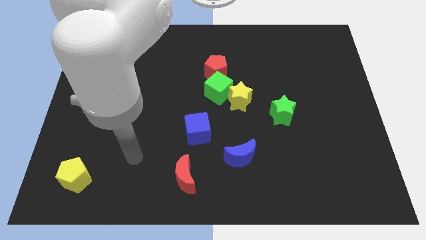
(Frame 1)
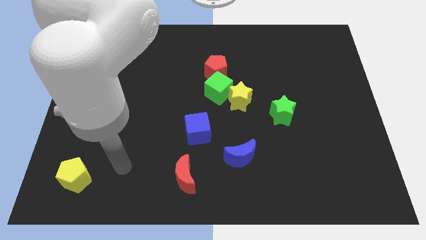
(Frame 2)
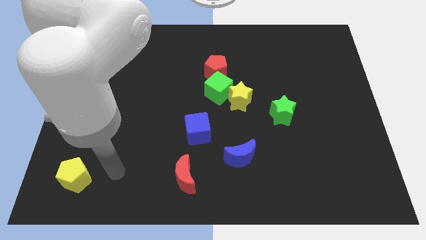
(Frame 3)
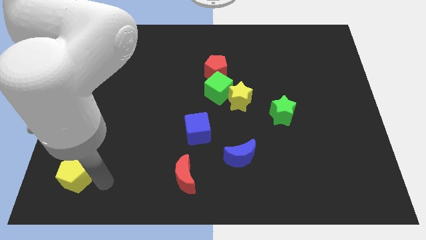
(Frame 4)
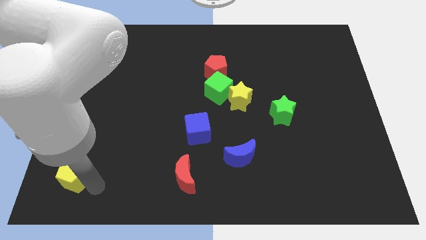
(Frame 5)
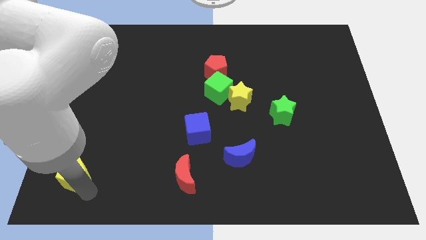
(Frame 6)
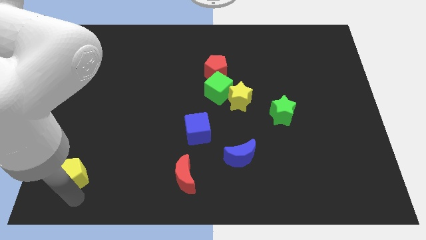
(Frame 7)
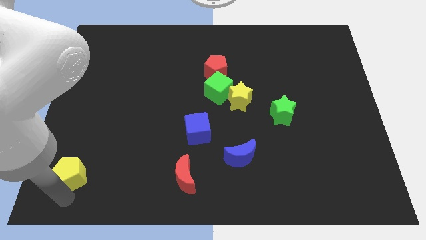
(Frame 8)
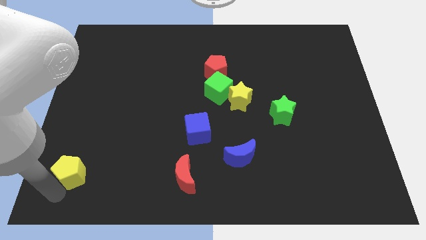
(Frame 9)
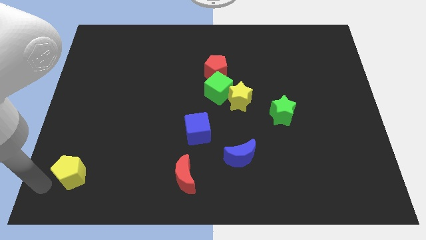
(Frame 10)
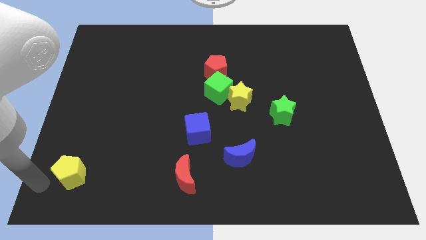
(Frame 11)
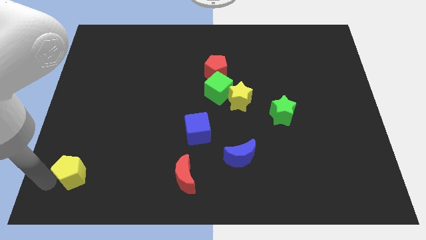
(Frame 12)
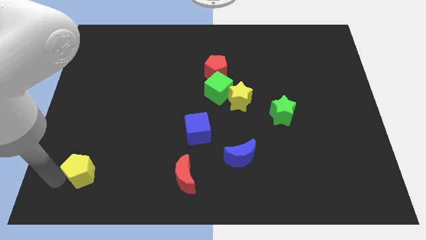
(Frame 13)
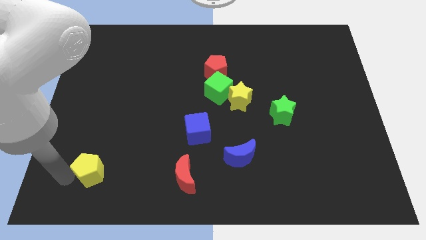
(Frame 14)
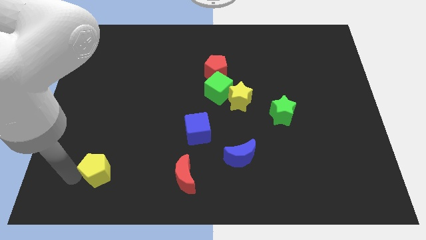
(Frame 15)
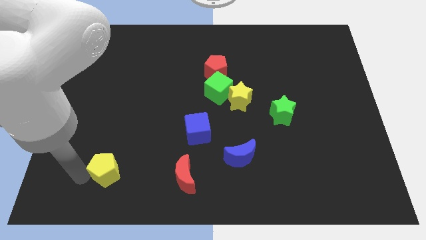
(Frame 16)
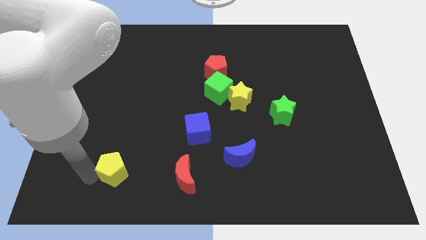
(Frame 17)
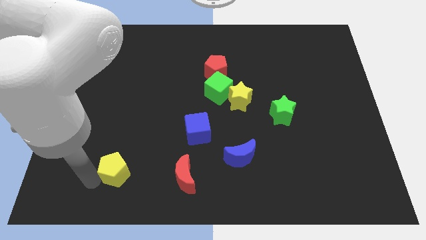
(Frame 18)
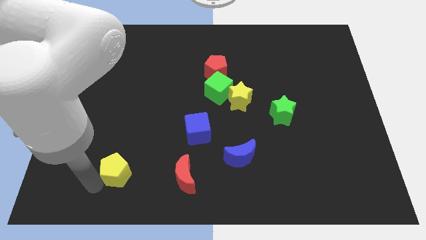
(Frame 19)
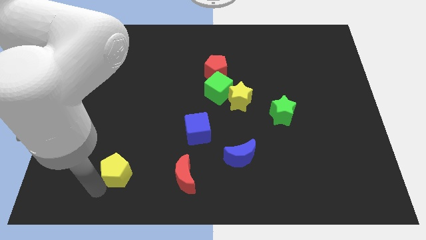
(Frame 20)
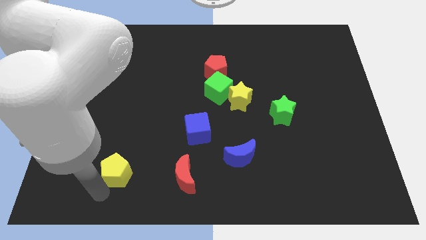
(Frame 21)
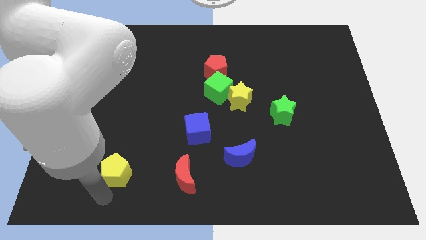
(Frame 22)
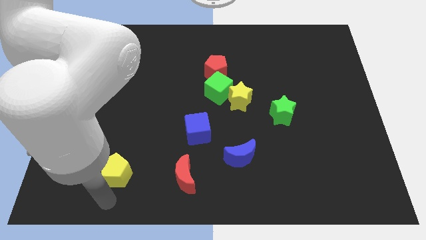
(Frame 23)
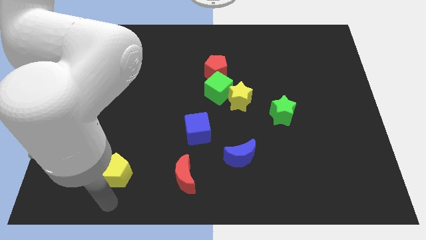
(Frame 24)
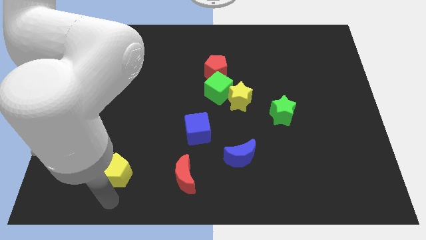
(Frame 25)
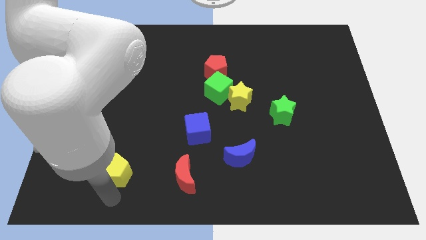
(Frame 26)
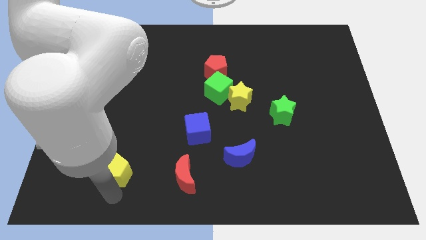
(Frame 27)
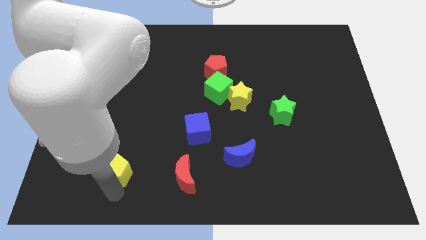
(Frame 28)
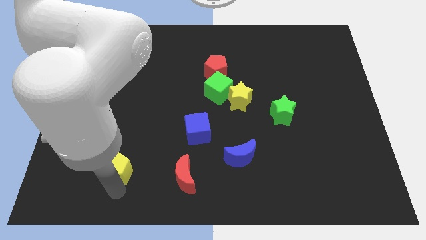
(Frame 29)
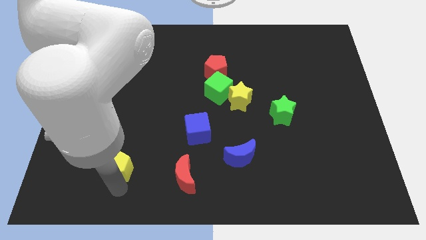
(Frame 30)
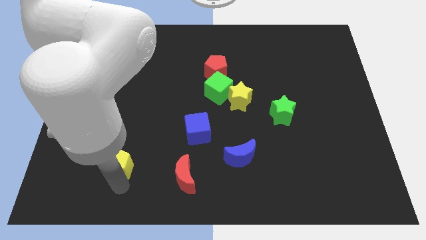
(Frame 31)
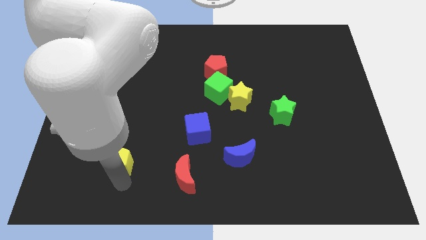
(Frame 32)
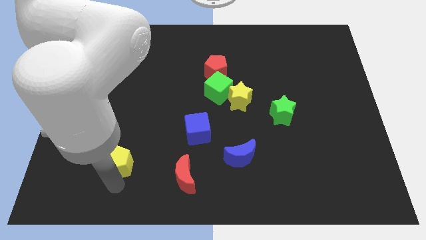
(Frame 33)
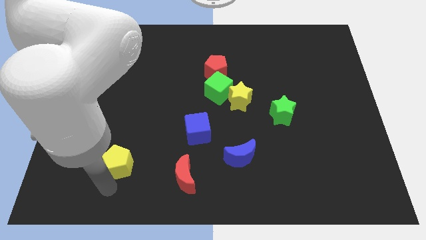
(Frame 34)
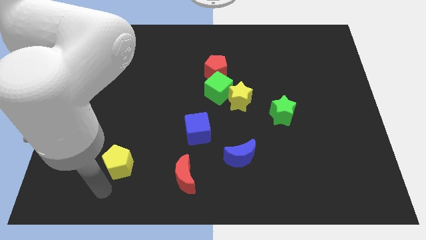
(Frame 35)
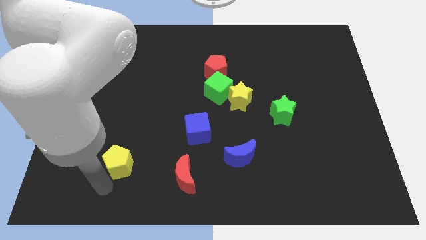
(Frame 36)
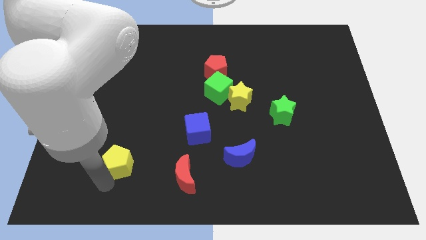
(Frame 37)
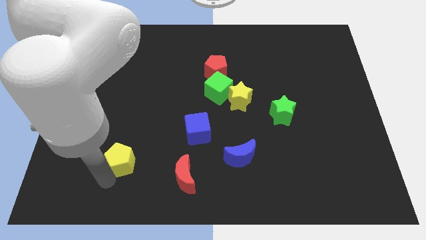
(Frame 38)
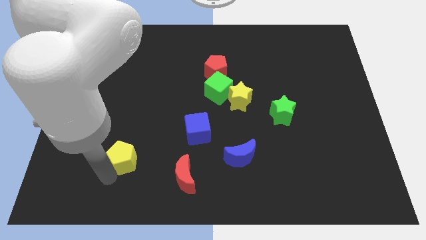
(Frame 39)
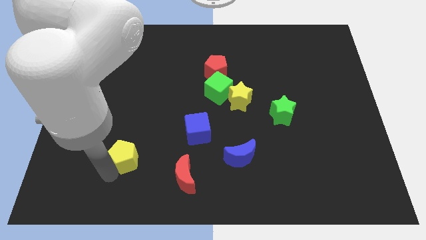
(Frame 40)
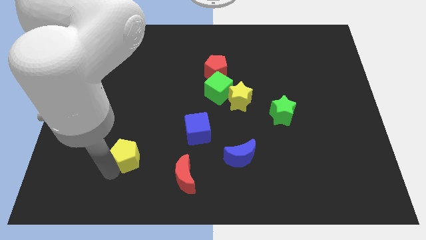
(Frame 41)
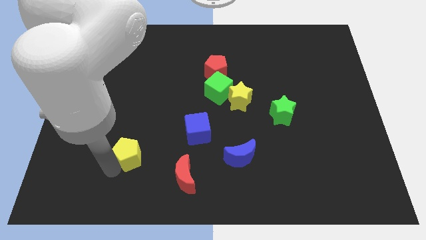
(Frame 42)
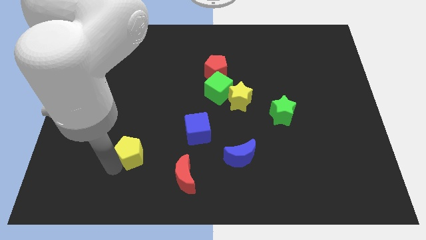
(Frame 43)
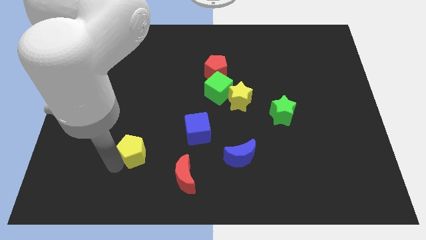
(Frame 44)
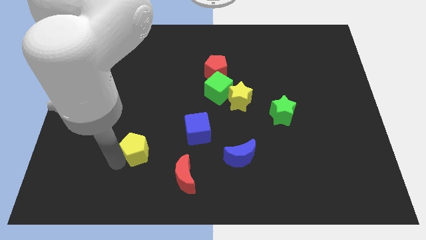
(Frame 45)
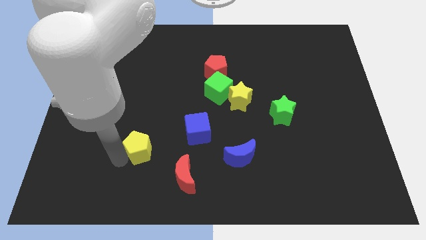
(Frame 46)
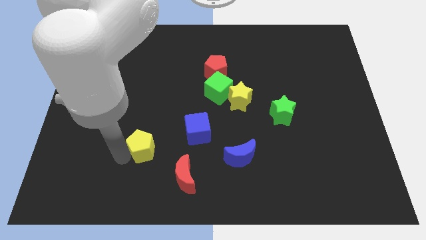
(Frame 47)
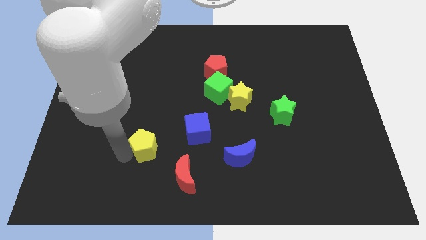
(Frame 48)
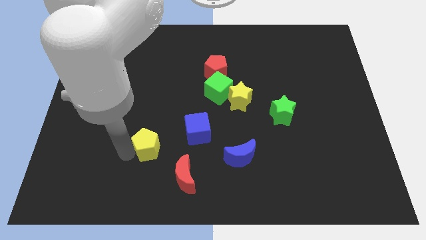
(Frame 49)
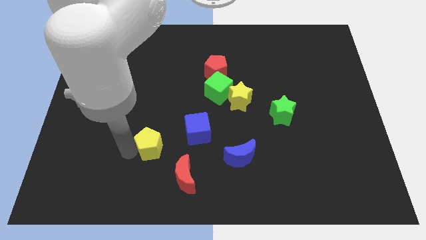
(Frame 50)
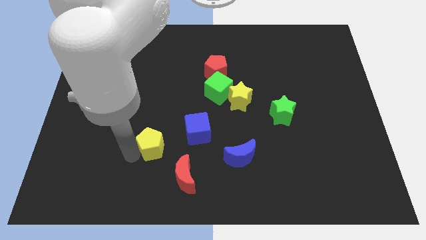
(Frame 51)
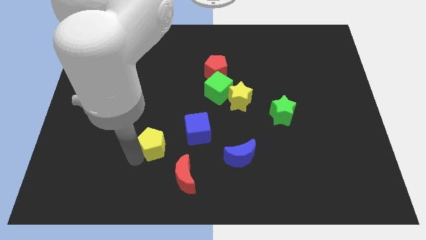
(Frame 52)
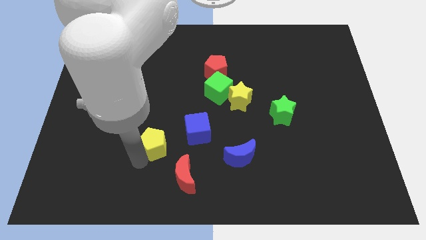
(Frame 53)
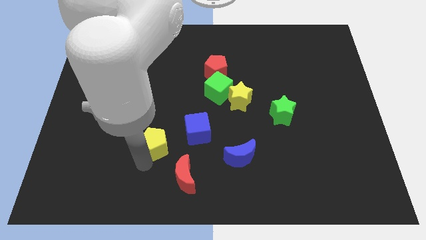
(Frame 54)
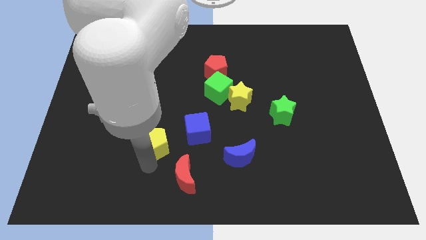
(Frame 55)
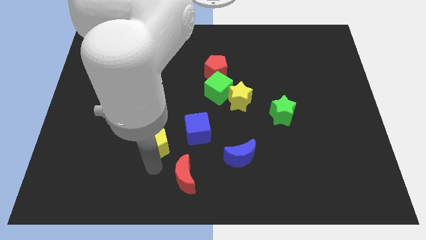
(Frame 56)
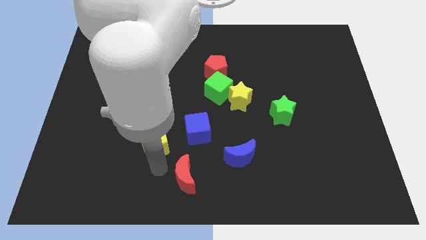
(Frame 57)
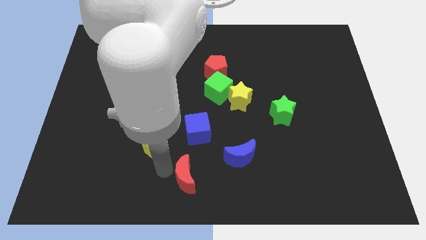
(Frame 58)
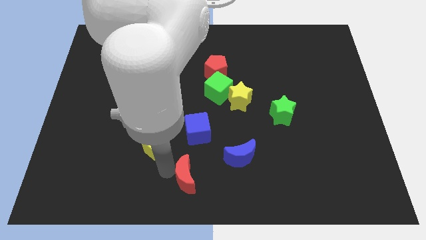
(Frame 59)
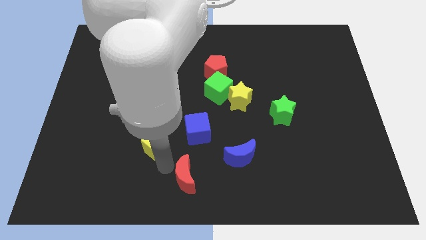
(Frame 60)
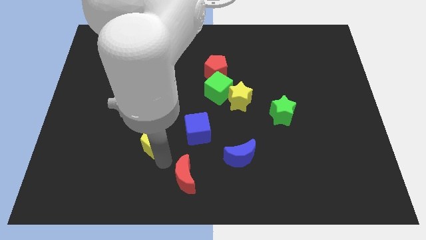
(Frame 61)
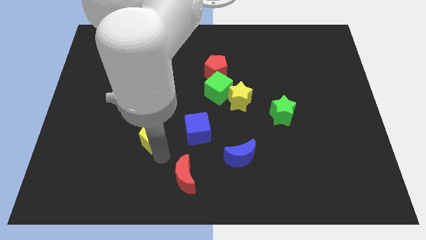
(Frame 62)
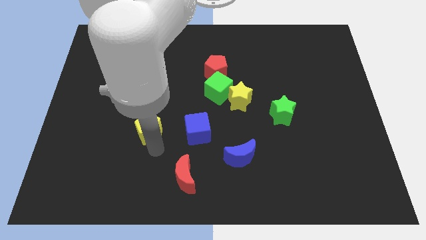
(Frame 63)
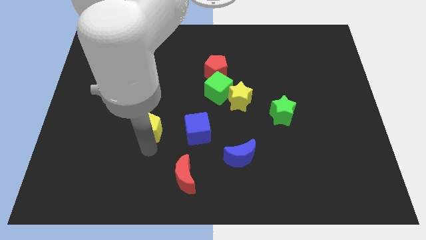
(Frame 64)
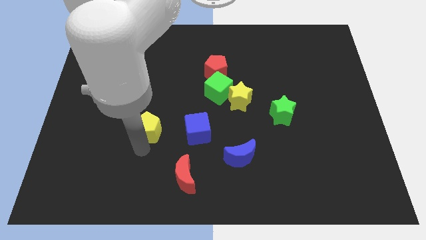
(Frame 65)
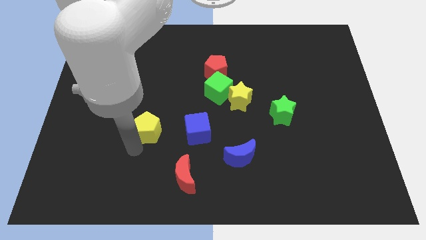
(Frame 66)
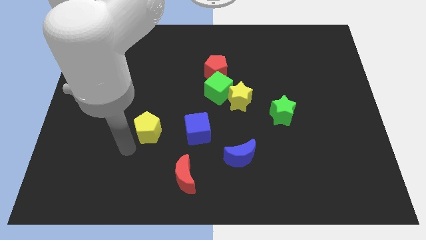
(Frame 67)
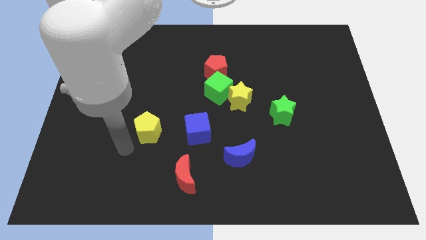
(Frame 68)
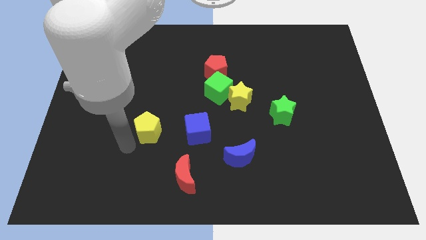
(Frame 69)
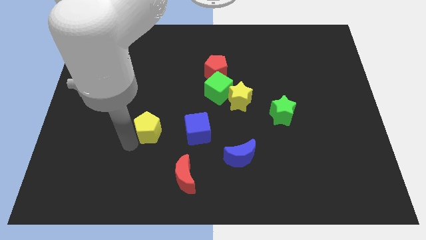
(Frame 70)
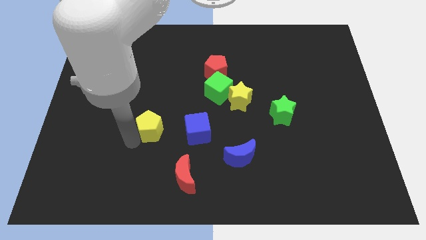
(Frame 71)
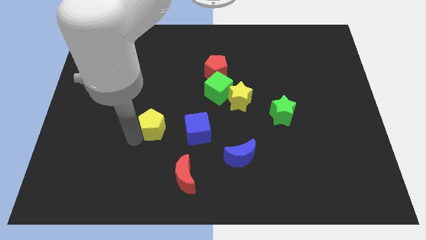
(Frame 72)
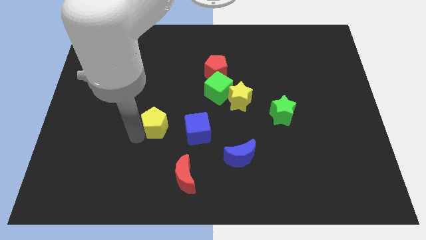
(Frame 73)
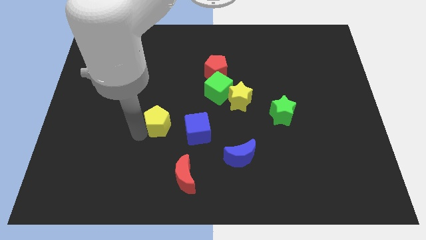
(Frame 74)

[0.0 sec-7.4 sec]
push the yellow pentagon to the top left of the blue cube
